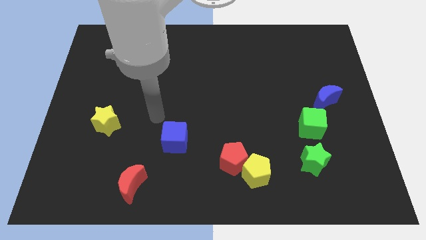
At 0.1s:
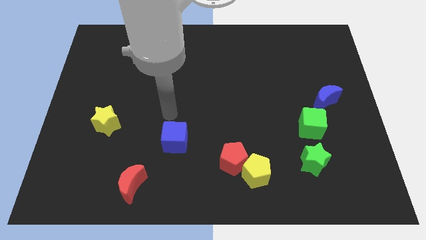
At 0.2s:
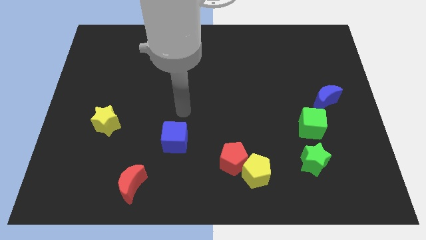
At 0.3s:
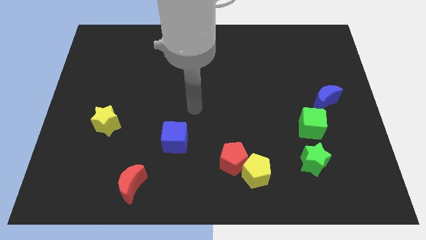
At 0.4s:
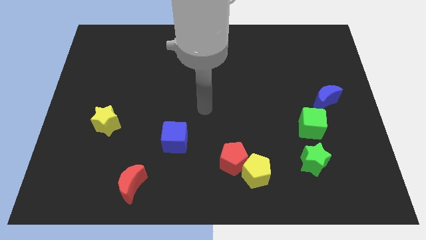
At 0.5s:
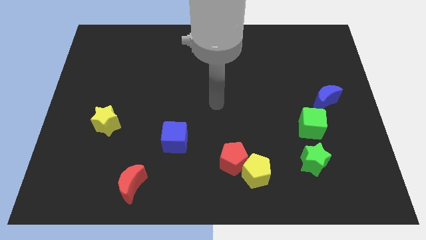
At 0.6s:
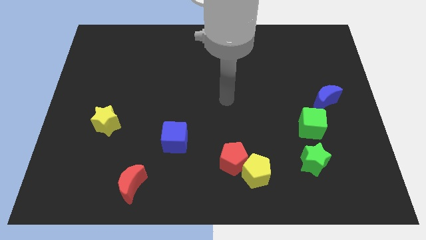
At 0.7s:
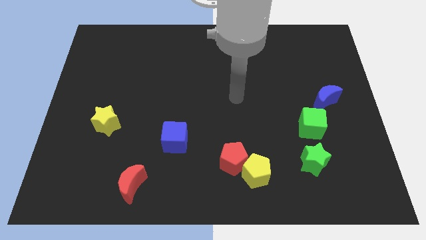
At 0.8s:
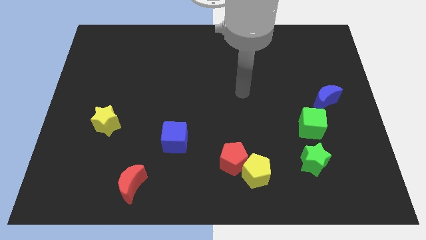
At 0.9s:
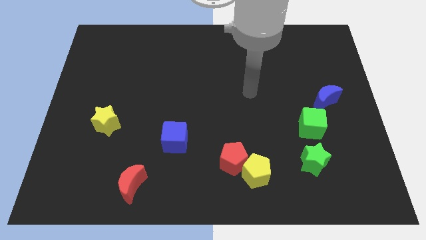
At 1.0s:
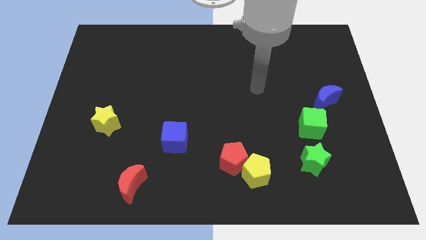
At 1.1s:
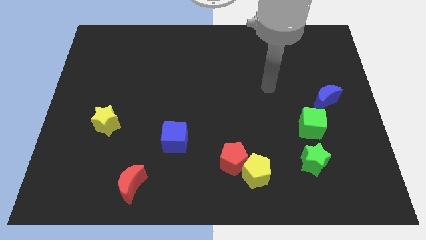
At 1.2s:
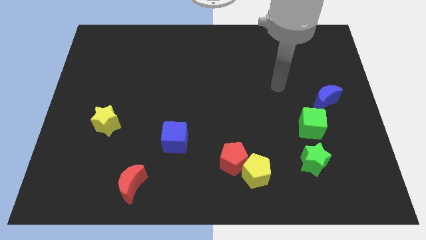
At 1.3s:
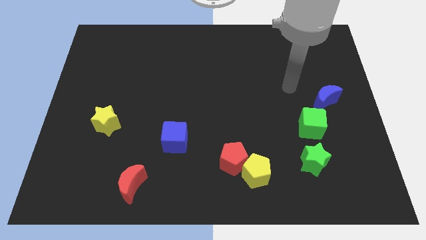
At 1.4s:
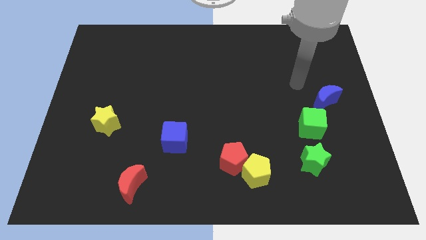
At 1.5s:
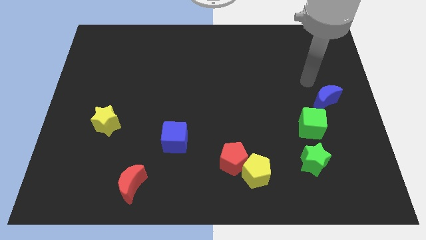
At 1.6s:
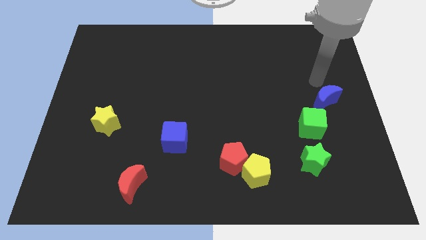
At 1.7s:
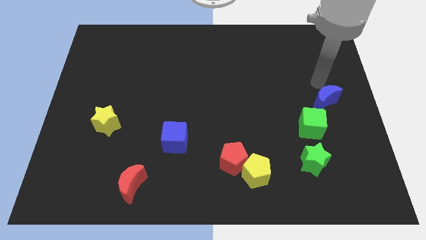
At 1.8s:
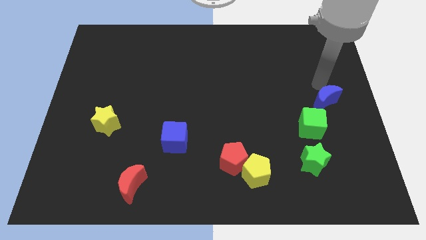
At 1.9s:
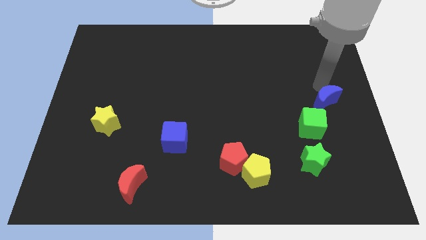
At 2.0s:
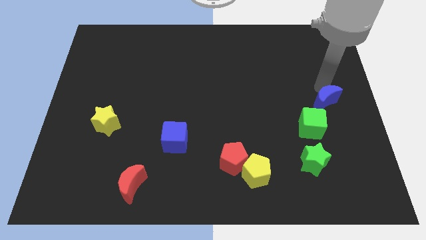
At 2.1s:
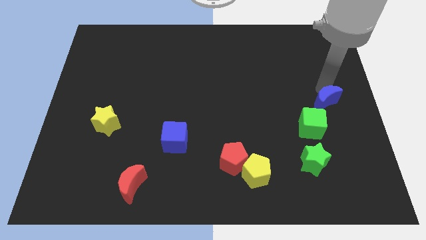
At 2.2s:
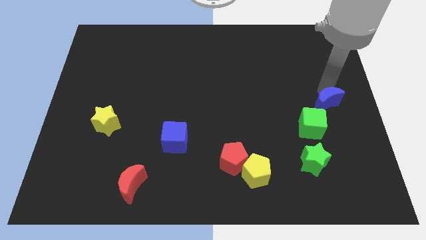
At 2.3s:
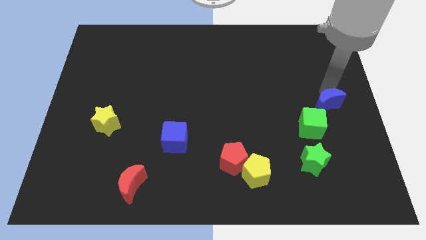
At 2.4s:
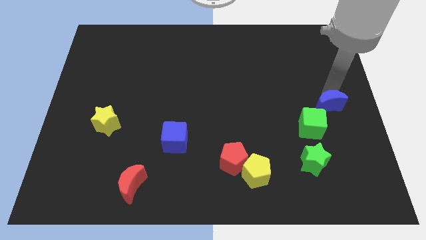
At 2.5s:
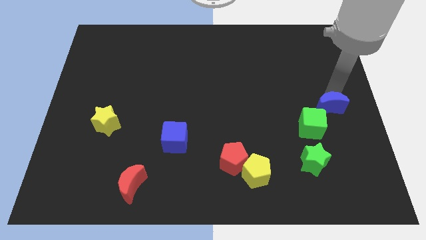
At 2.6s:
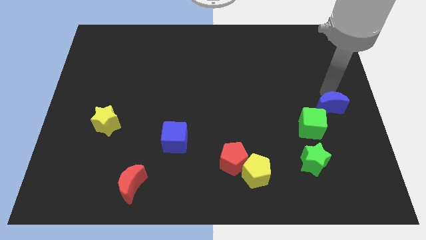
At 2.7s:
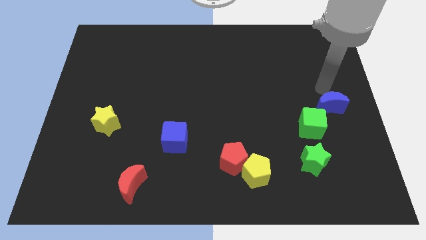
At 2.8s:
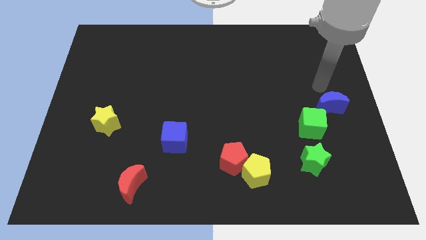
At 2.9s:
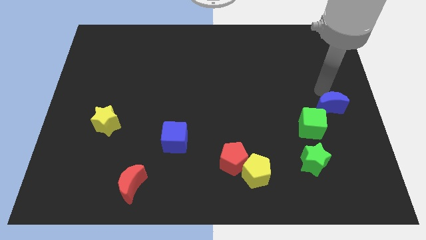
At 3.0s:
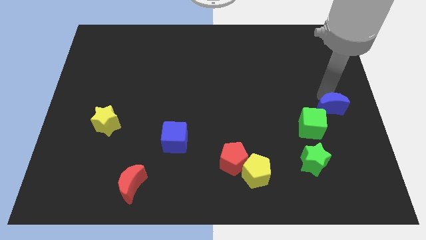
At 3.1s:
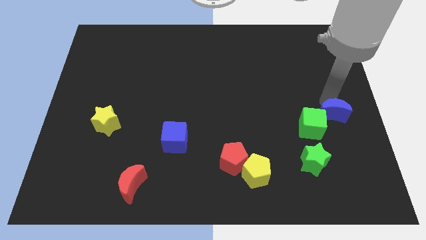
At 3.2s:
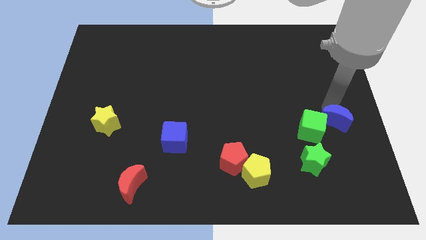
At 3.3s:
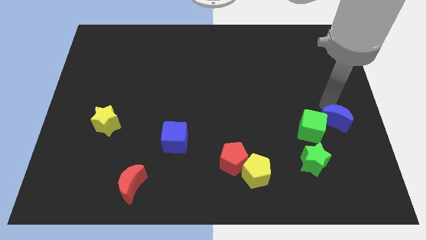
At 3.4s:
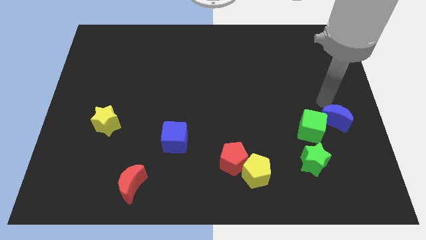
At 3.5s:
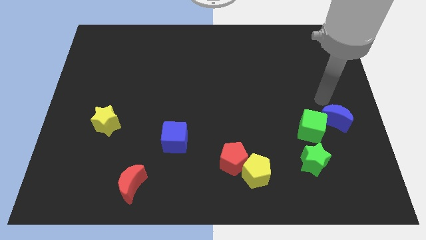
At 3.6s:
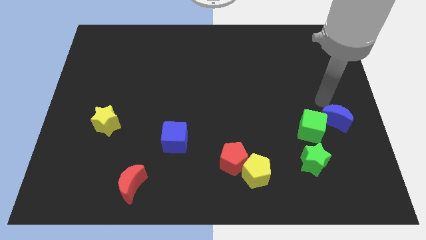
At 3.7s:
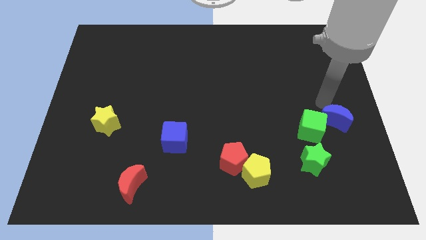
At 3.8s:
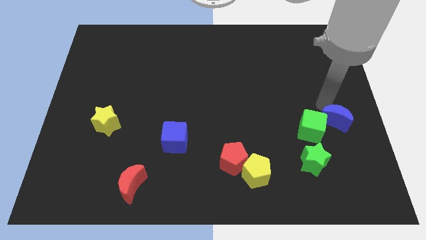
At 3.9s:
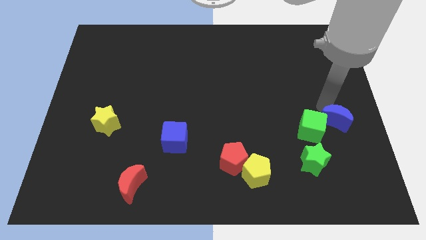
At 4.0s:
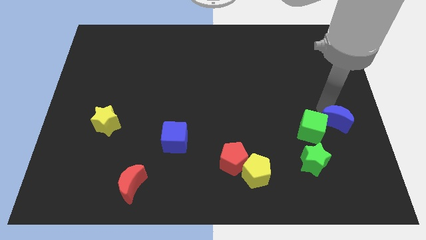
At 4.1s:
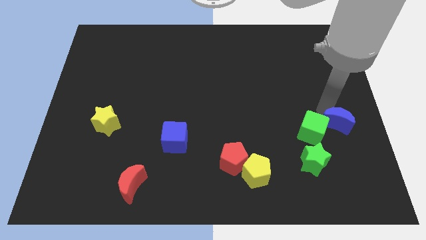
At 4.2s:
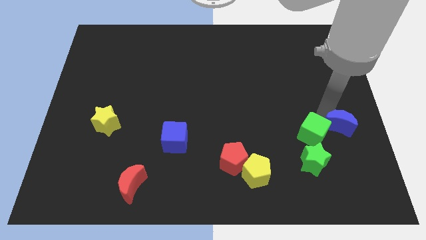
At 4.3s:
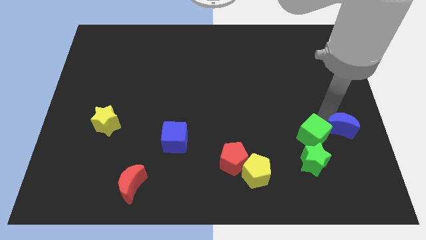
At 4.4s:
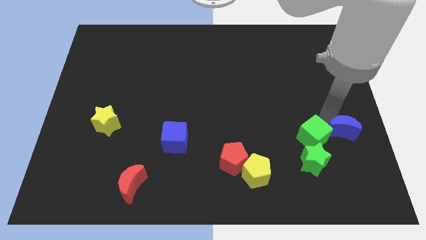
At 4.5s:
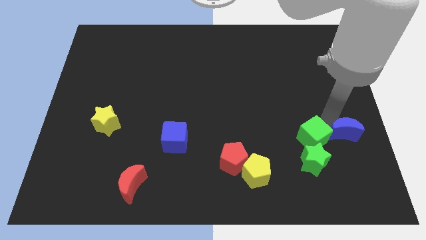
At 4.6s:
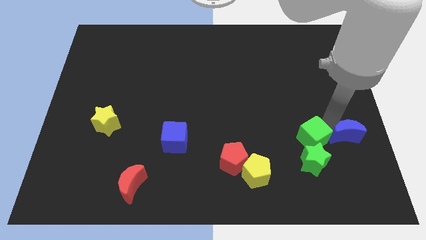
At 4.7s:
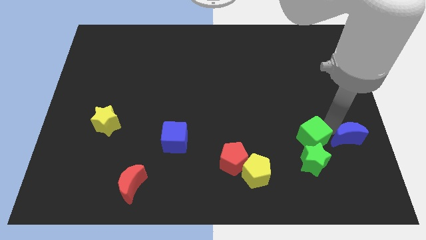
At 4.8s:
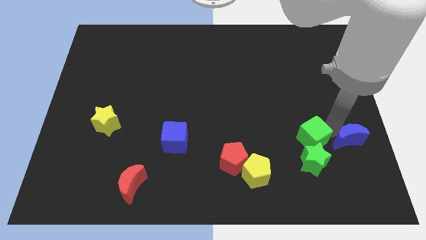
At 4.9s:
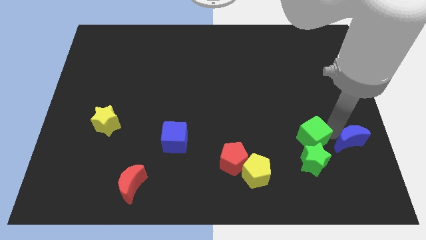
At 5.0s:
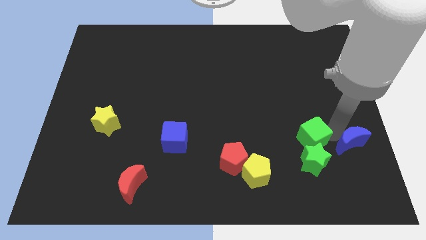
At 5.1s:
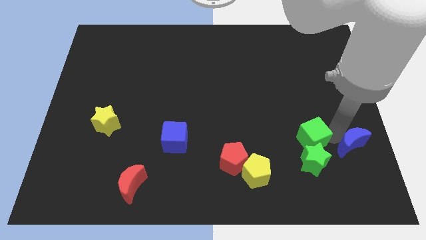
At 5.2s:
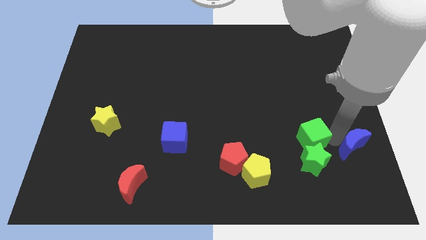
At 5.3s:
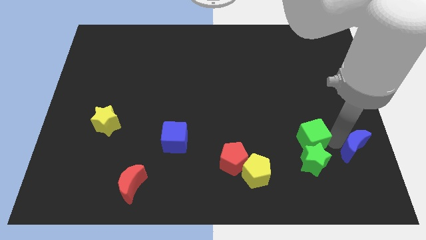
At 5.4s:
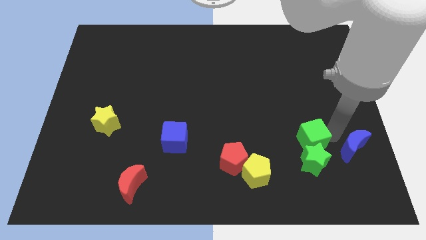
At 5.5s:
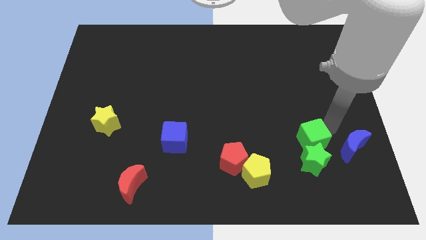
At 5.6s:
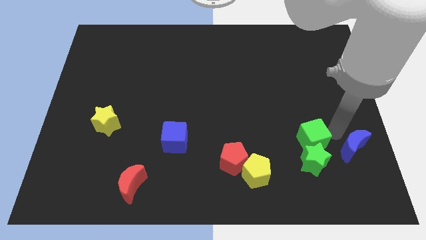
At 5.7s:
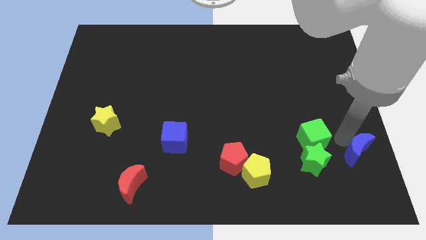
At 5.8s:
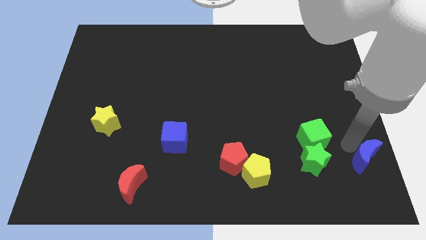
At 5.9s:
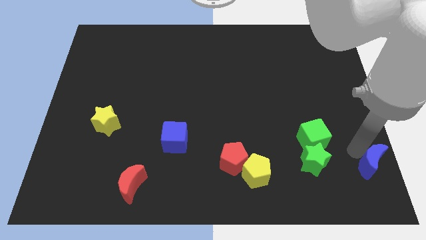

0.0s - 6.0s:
put the blue moon to the bottom right of the board

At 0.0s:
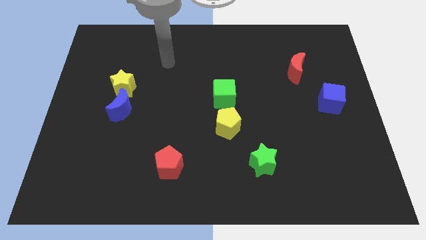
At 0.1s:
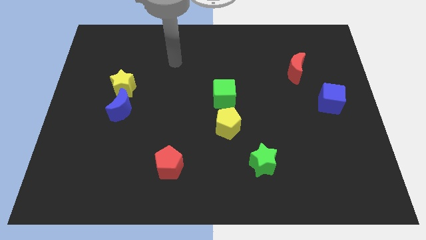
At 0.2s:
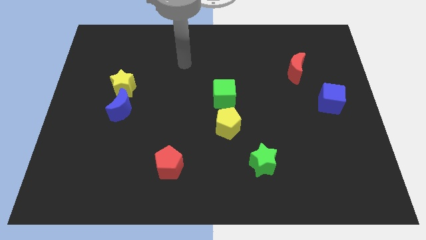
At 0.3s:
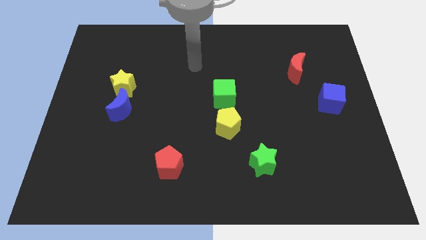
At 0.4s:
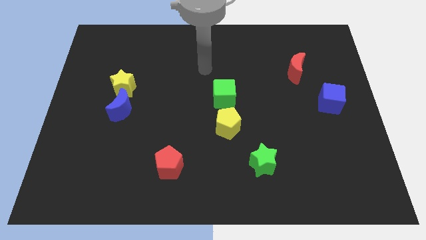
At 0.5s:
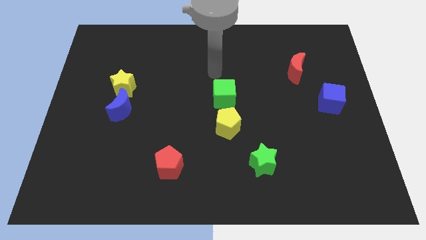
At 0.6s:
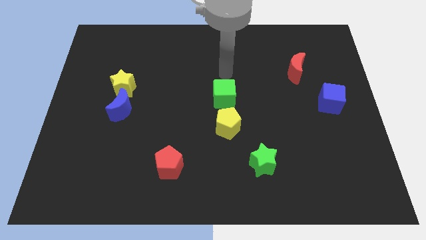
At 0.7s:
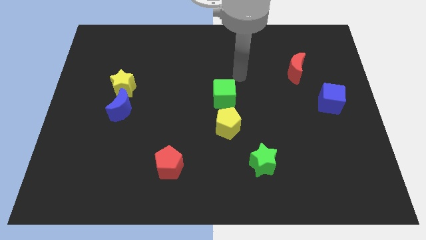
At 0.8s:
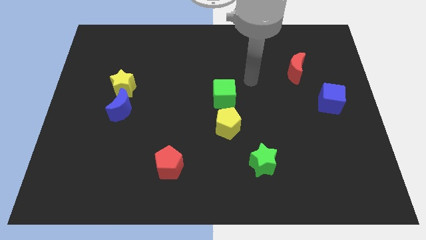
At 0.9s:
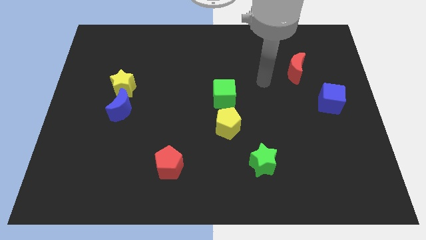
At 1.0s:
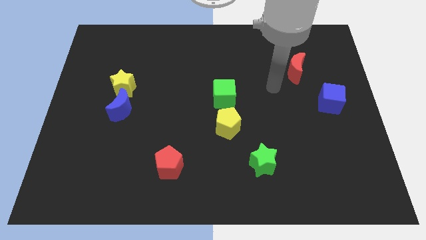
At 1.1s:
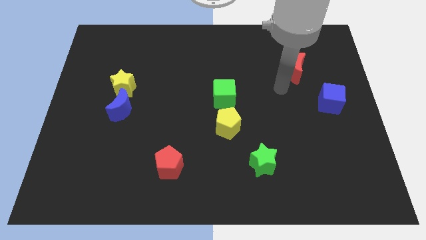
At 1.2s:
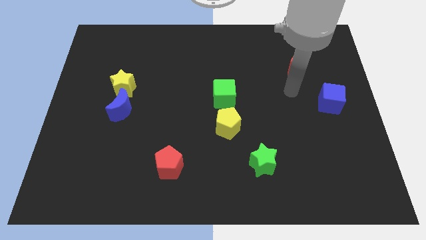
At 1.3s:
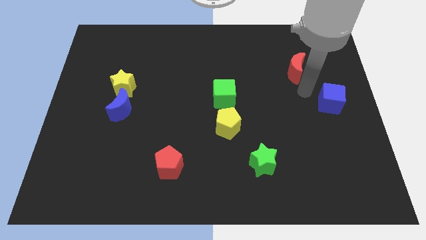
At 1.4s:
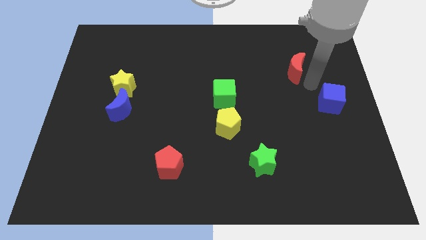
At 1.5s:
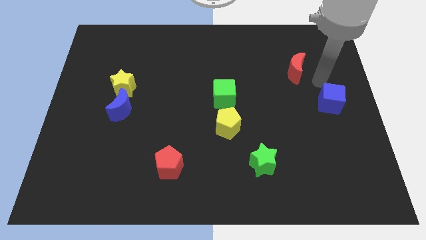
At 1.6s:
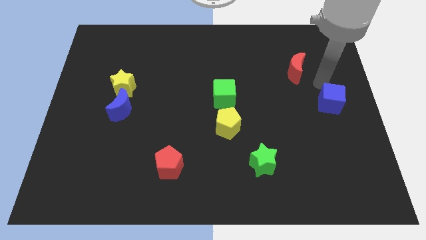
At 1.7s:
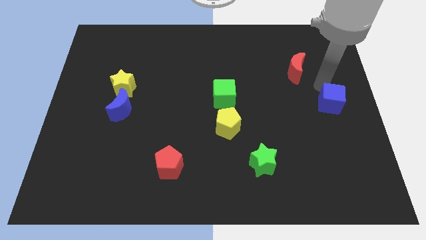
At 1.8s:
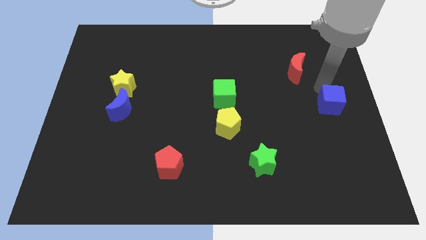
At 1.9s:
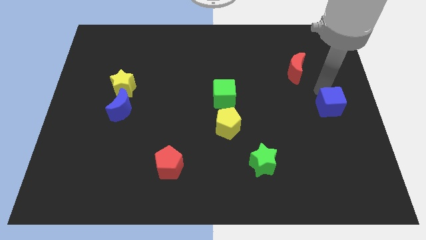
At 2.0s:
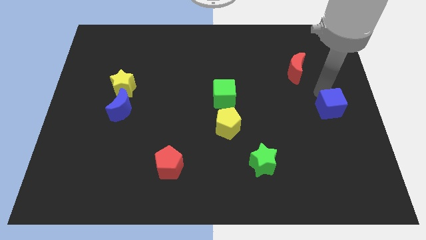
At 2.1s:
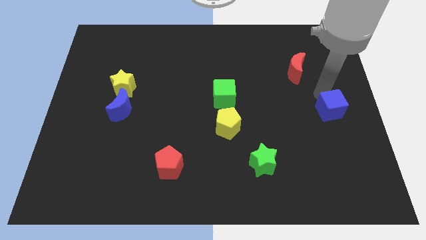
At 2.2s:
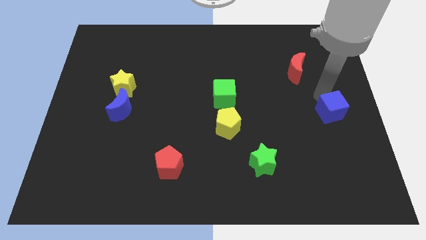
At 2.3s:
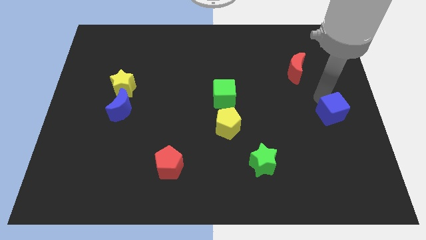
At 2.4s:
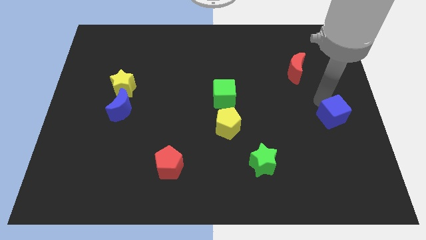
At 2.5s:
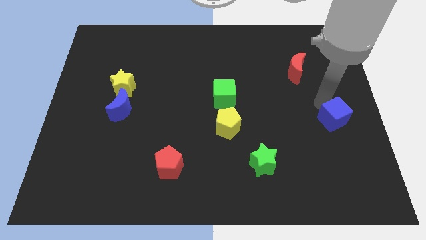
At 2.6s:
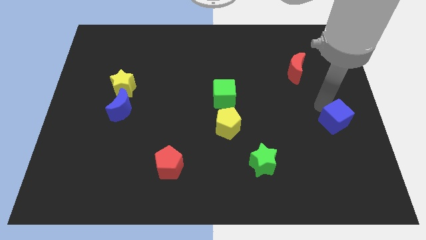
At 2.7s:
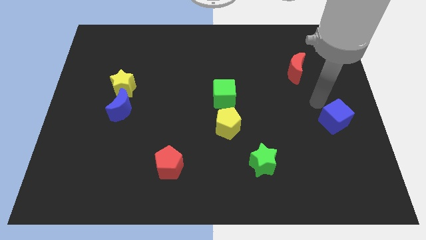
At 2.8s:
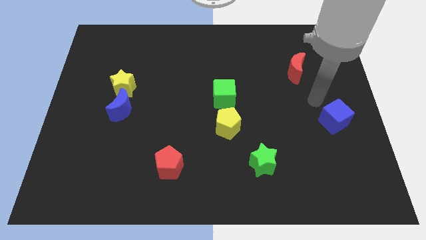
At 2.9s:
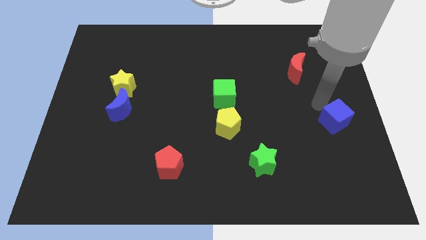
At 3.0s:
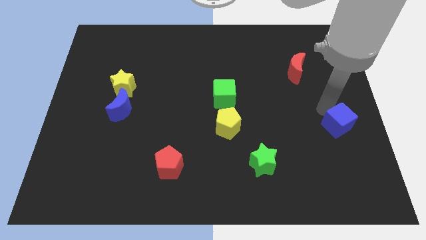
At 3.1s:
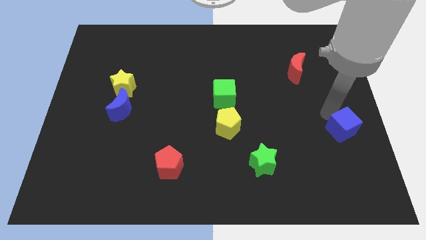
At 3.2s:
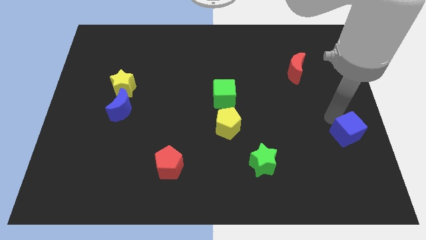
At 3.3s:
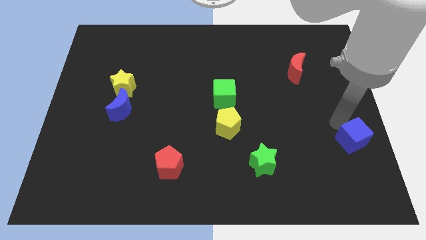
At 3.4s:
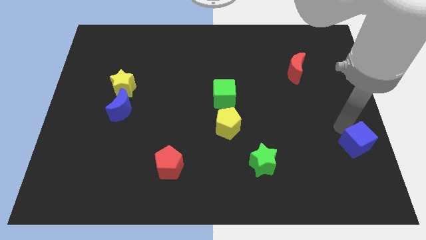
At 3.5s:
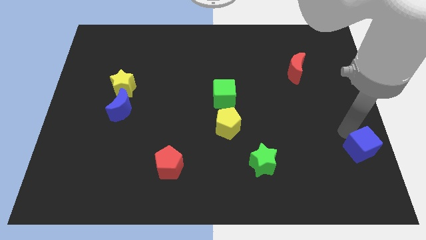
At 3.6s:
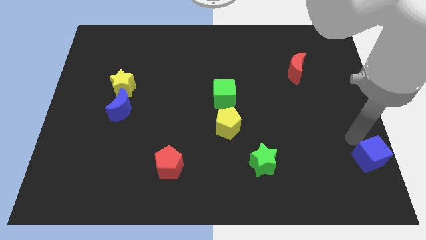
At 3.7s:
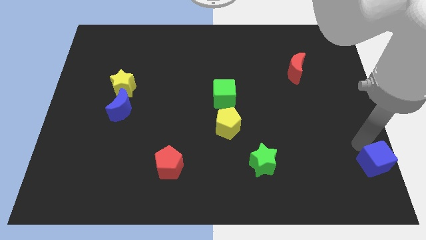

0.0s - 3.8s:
move the blue cube to the lower right corner
